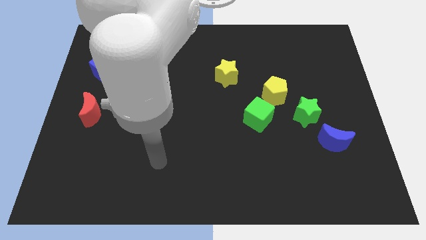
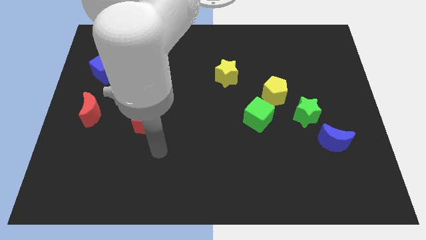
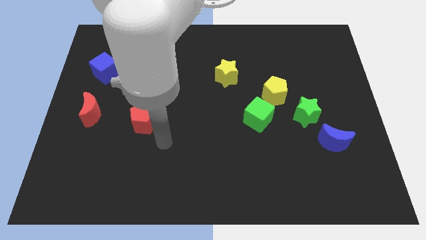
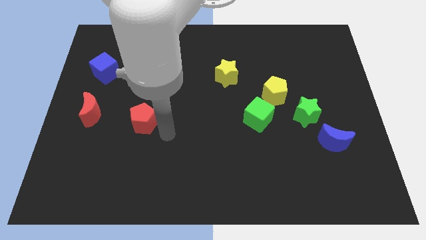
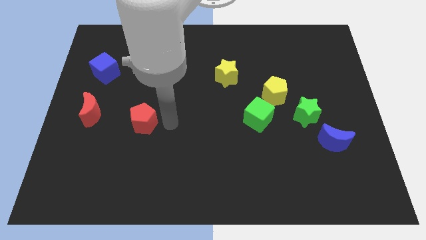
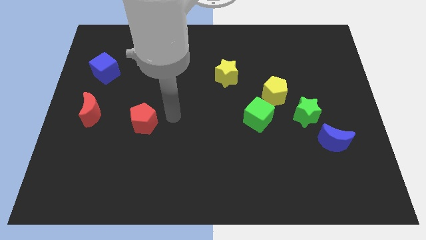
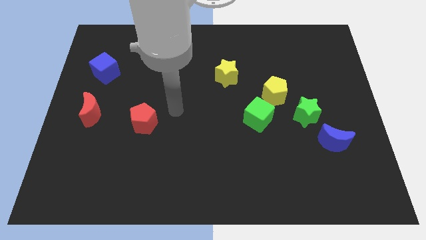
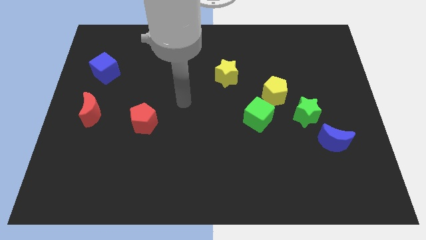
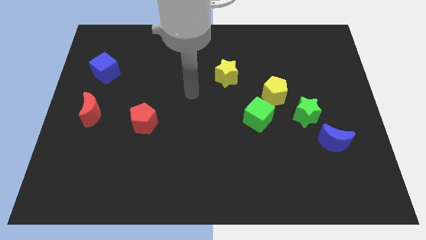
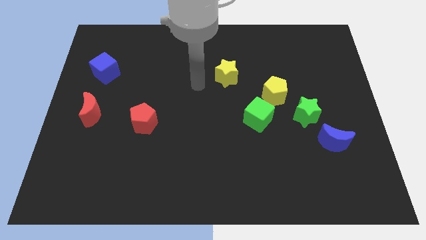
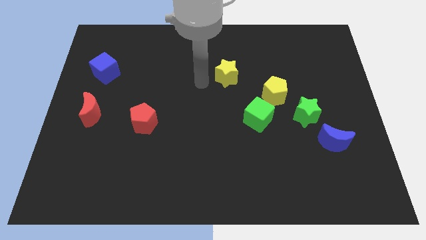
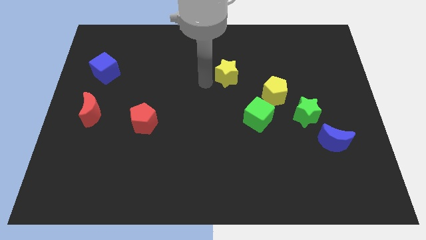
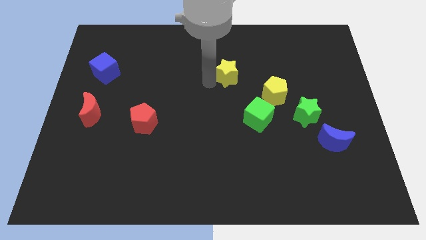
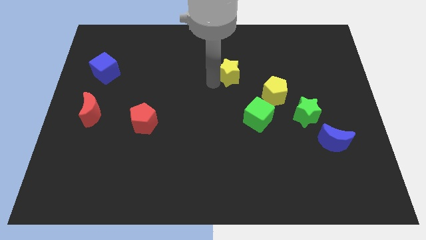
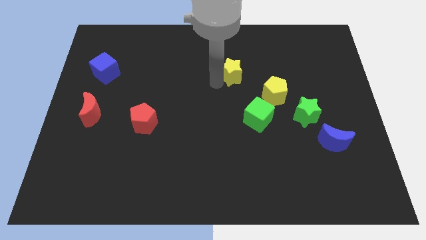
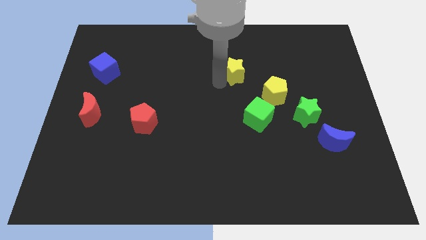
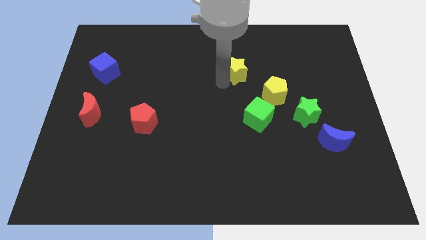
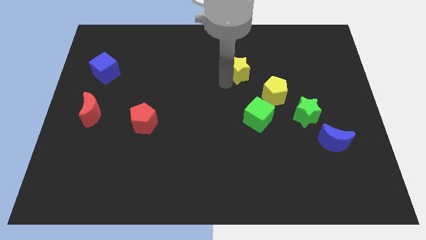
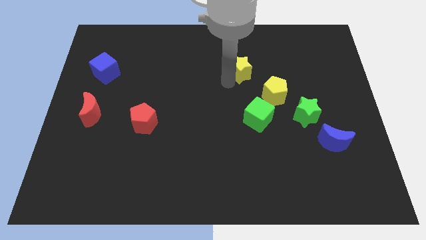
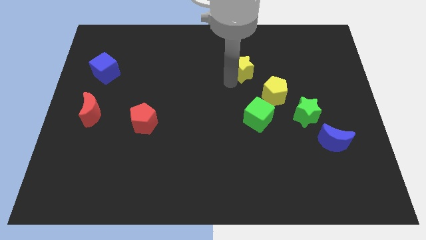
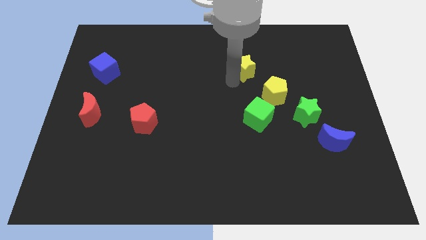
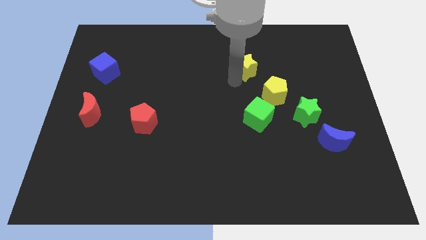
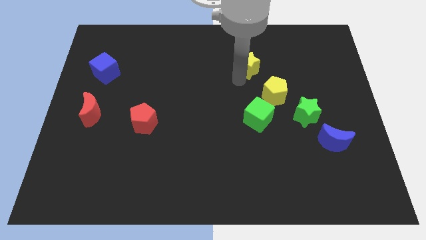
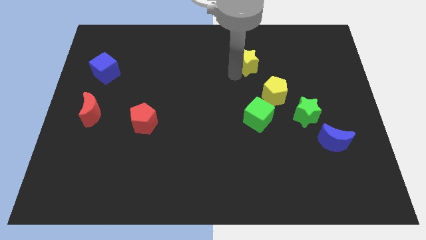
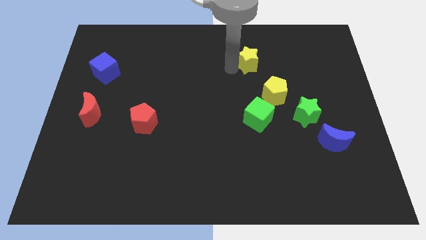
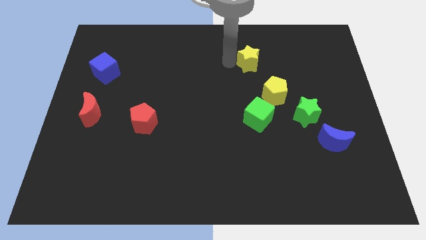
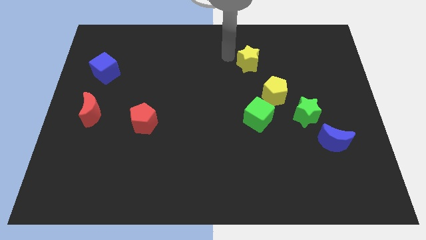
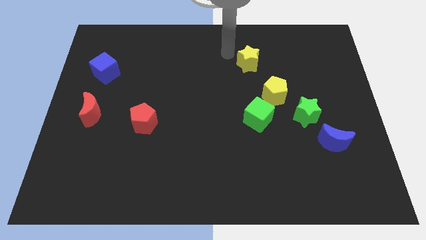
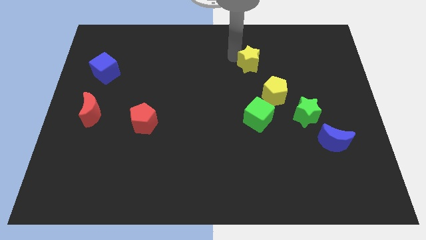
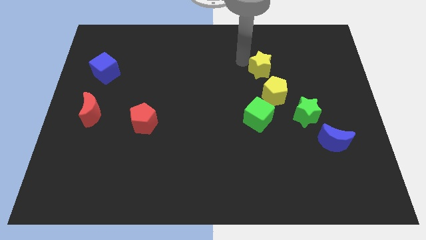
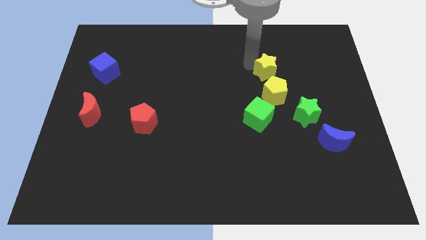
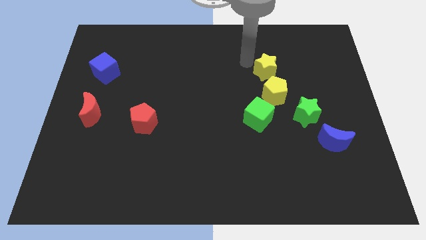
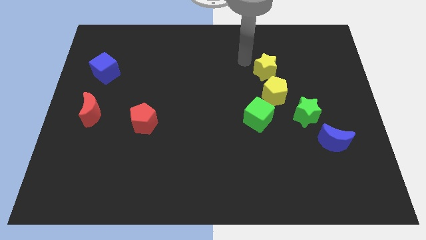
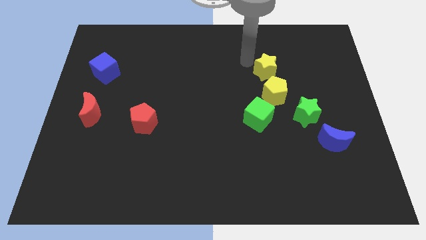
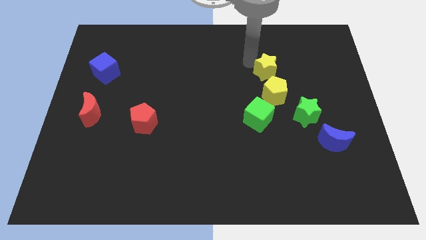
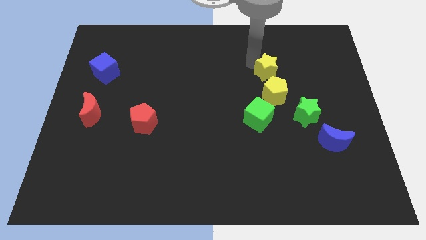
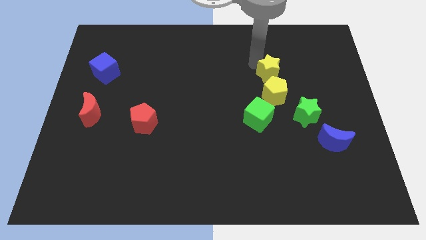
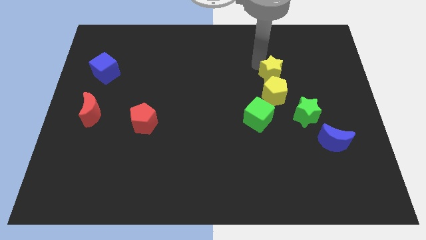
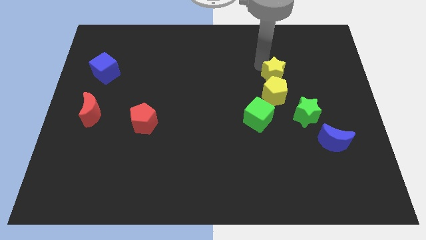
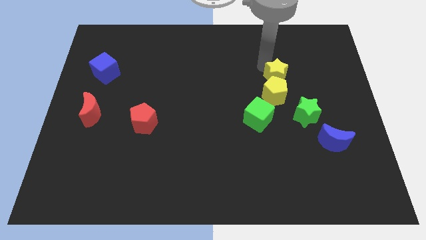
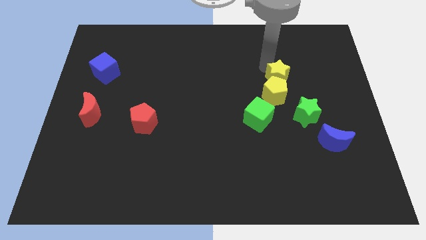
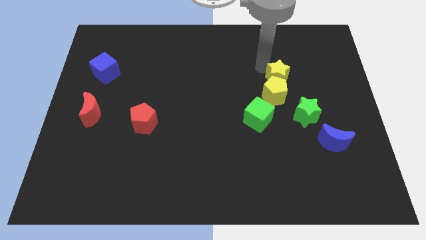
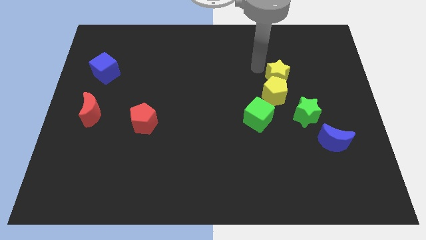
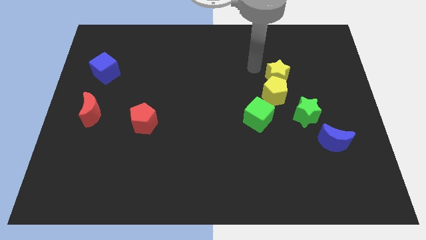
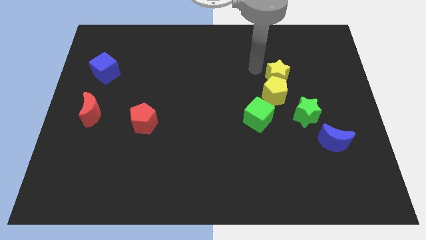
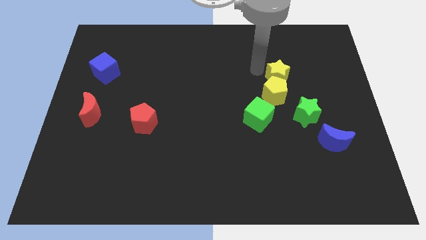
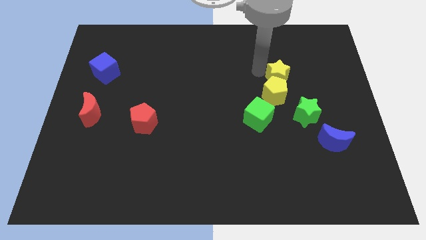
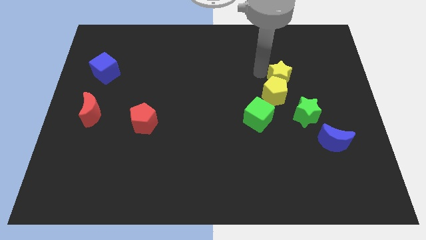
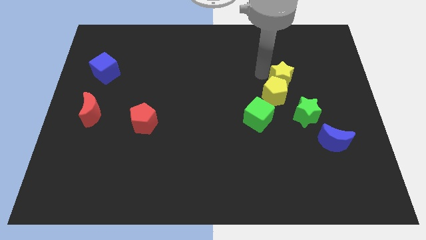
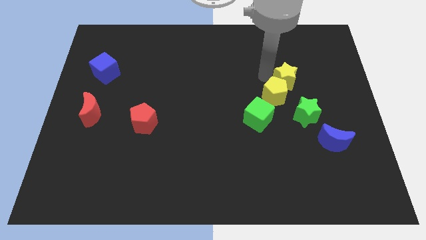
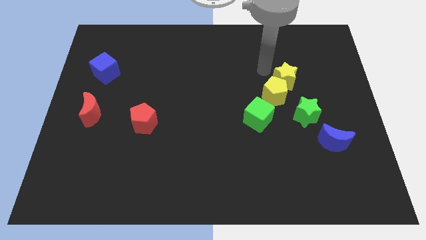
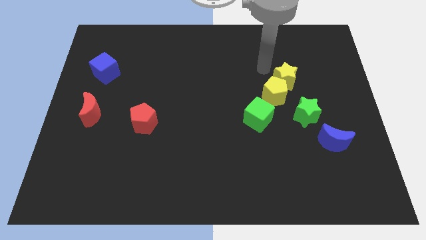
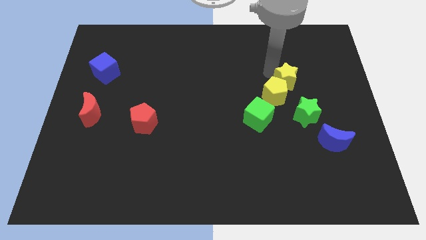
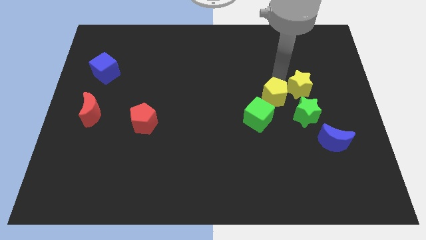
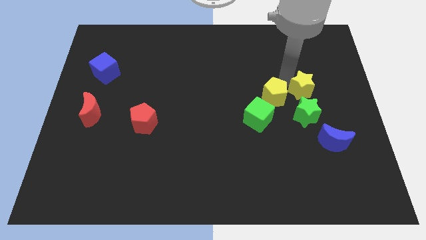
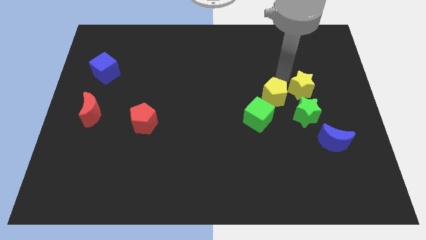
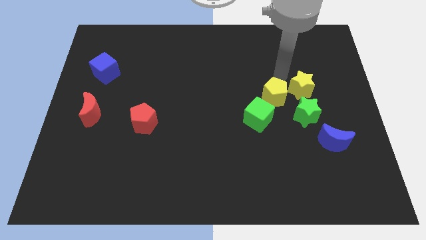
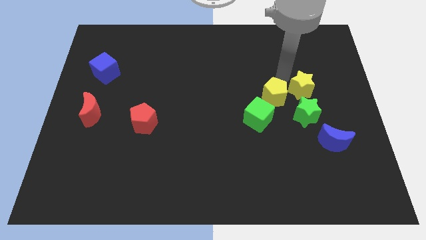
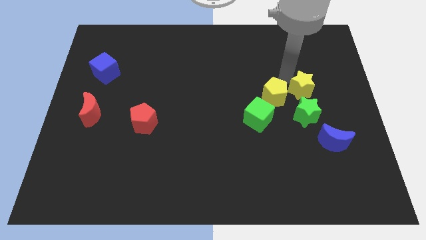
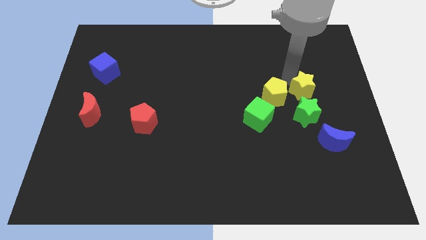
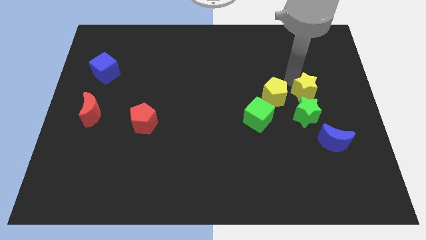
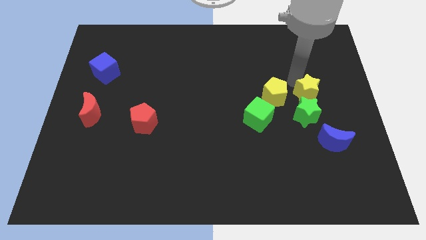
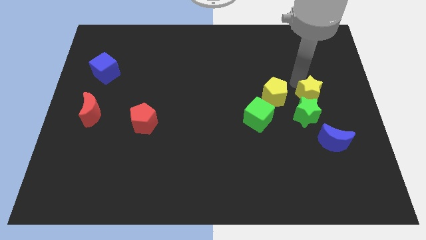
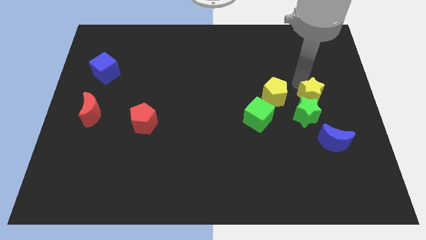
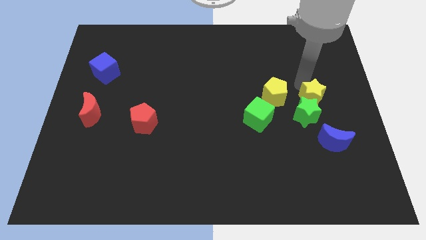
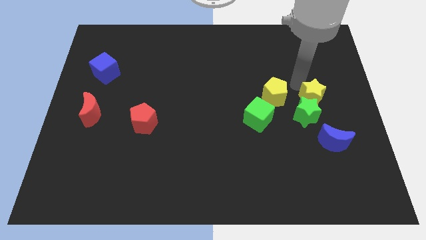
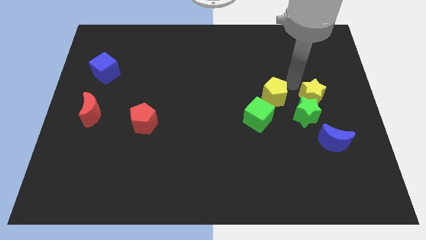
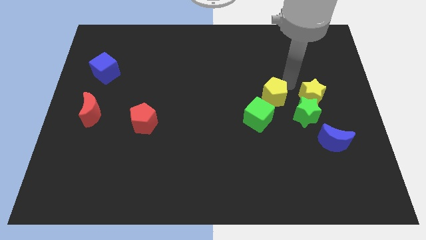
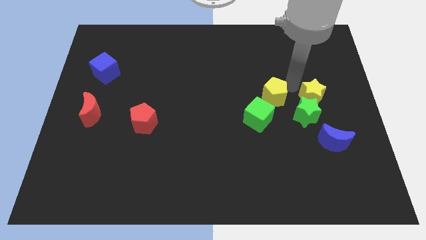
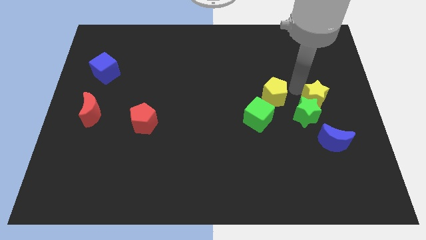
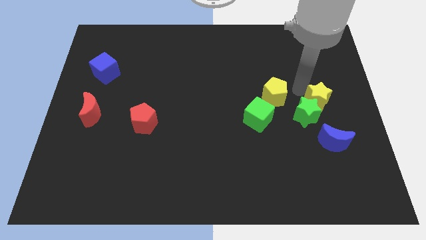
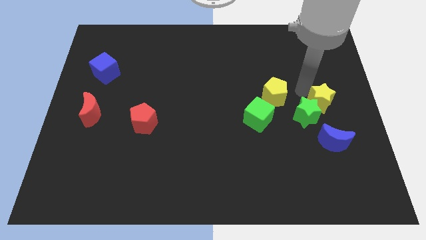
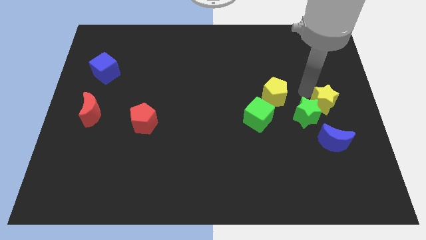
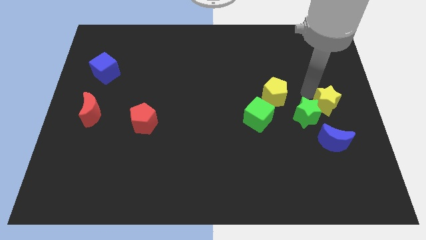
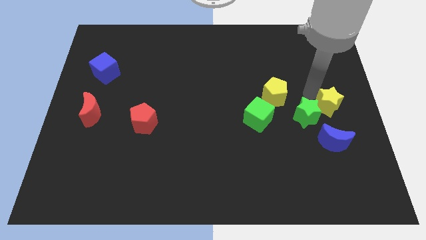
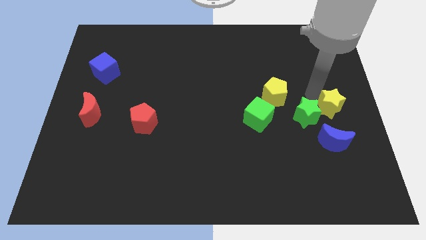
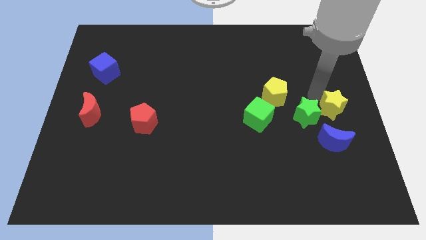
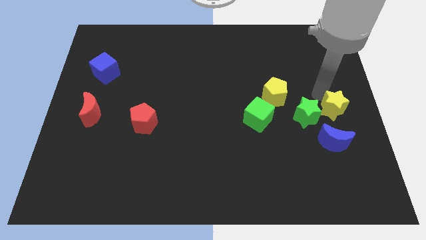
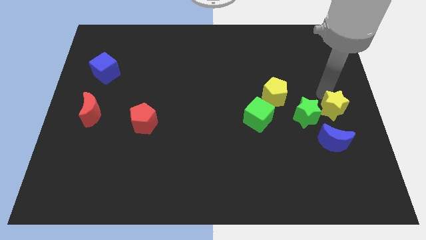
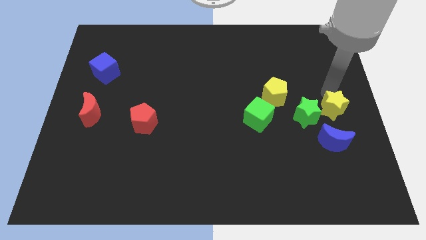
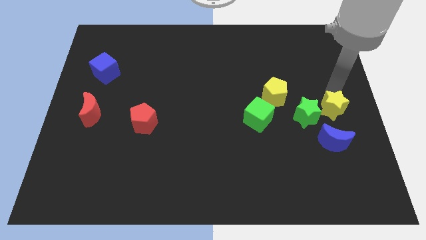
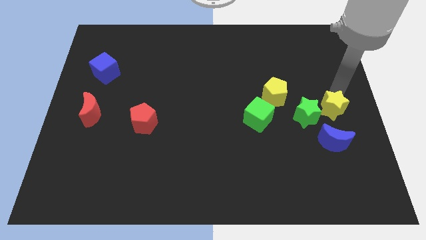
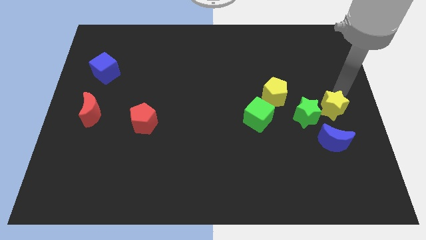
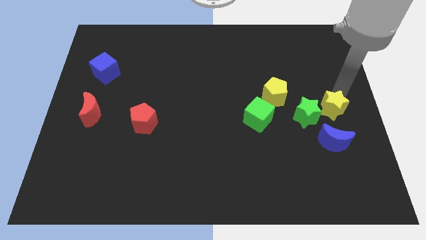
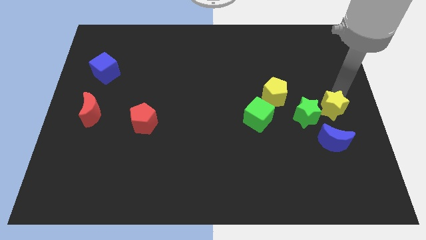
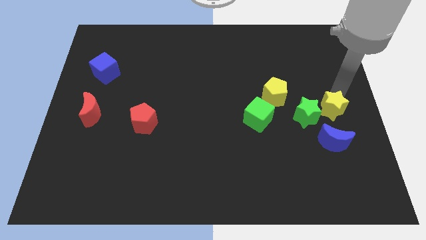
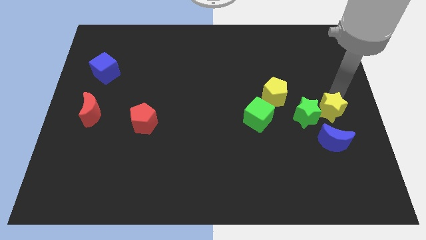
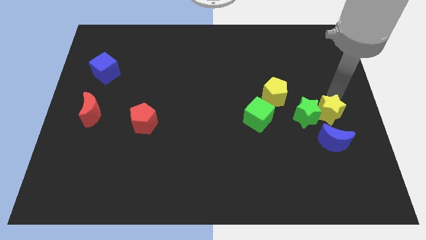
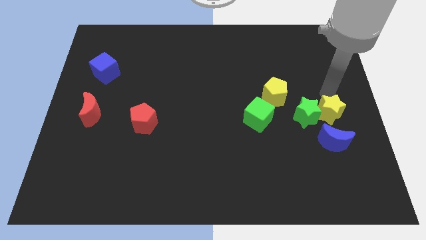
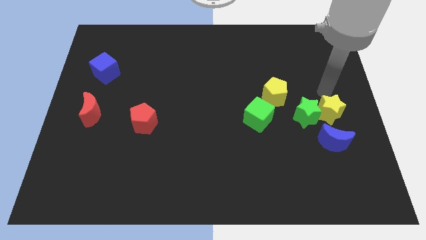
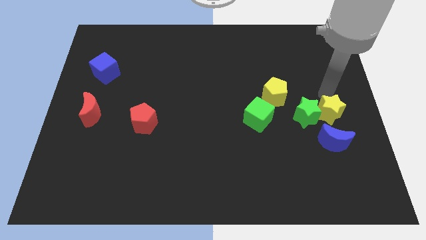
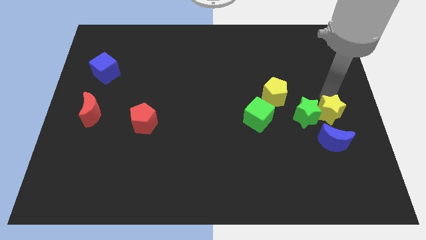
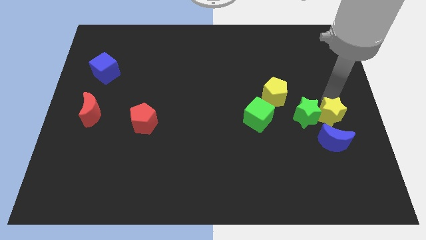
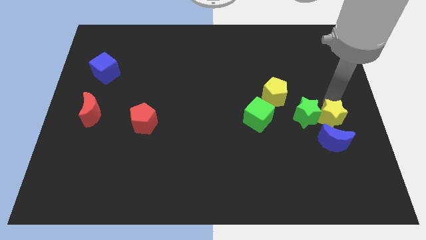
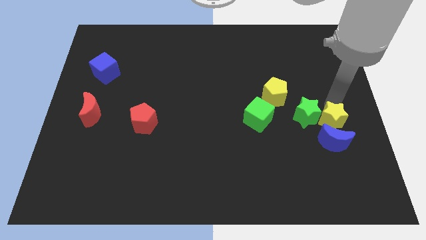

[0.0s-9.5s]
slide the yellow star to the blue moon
